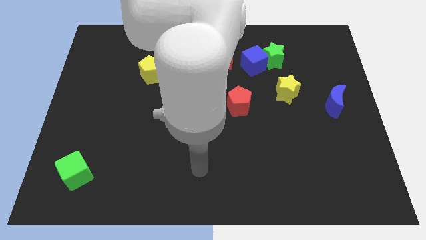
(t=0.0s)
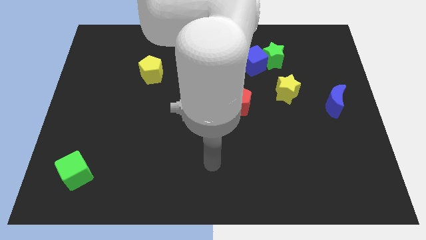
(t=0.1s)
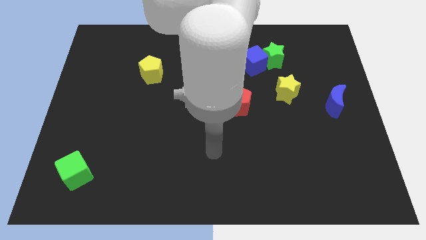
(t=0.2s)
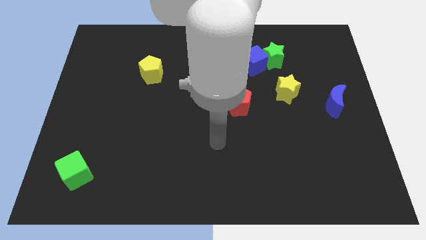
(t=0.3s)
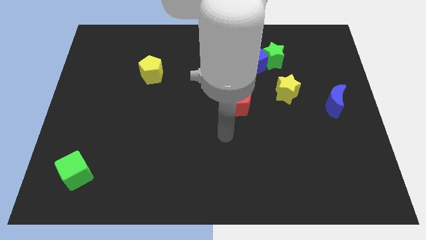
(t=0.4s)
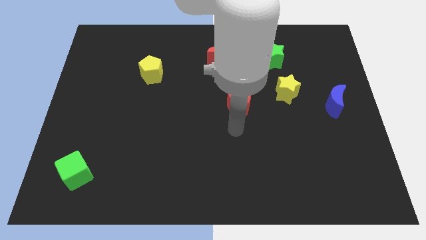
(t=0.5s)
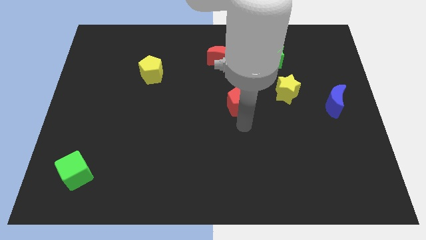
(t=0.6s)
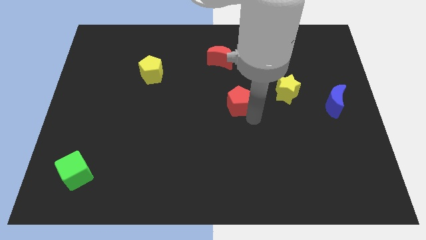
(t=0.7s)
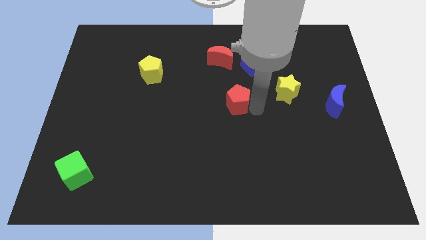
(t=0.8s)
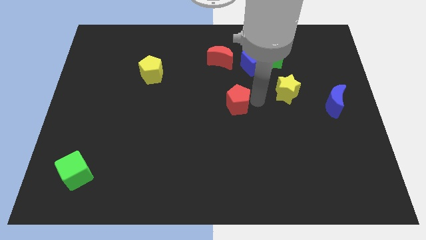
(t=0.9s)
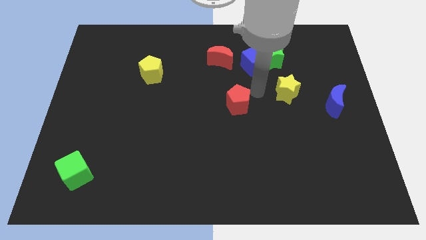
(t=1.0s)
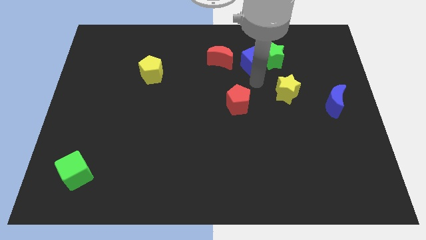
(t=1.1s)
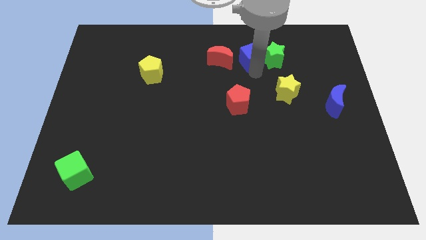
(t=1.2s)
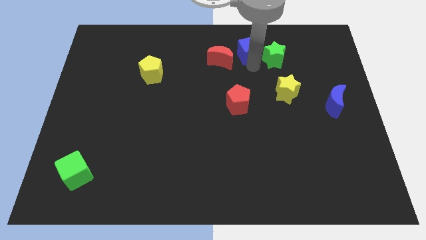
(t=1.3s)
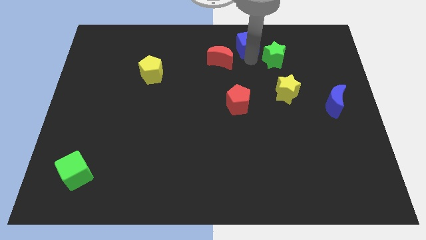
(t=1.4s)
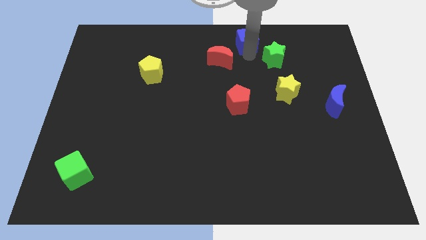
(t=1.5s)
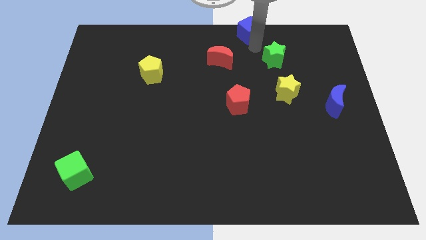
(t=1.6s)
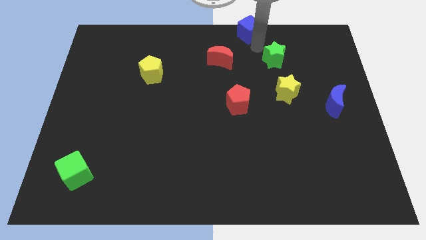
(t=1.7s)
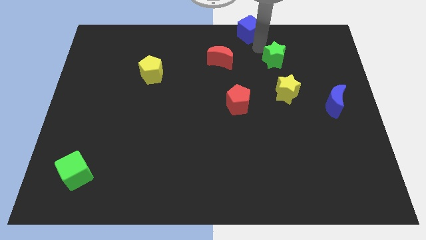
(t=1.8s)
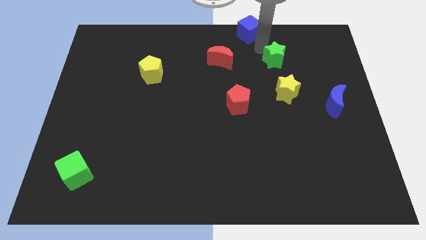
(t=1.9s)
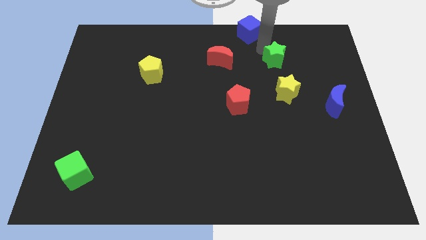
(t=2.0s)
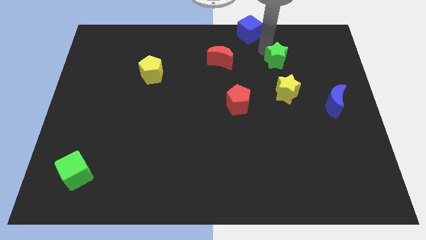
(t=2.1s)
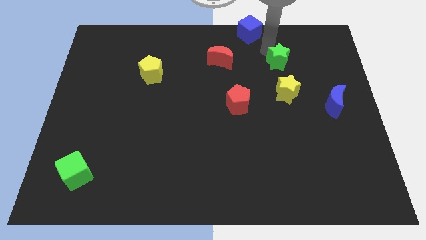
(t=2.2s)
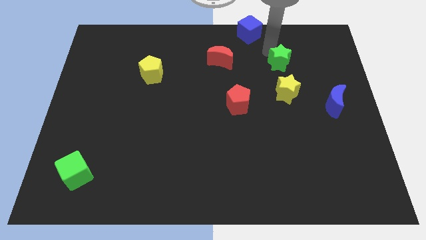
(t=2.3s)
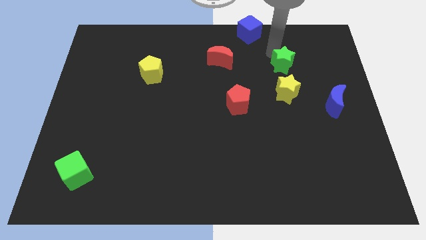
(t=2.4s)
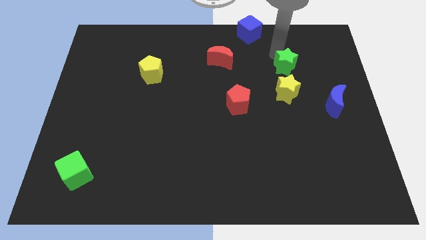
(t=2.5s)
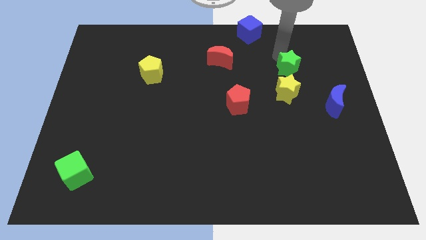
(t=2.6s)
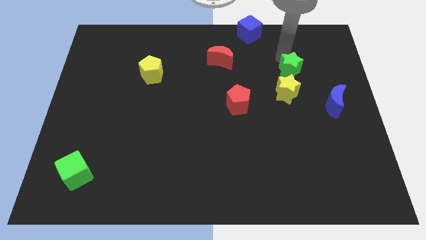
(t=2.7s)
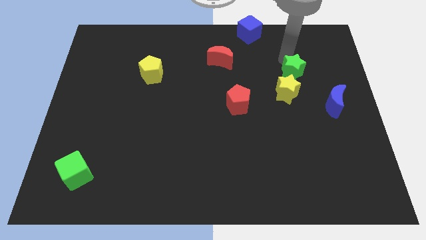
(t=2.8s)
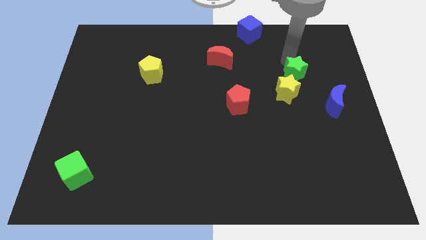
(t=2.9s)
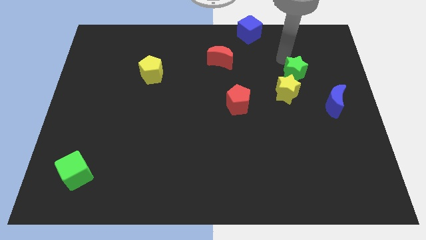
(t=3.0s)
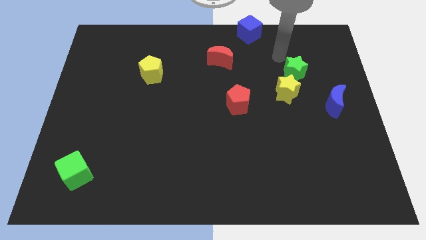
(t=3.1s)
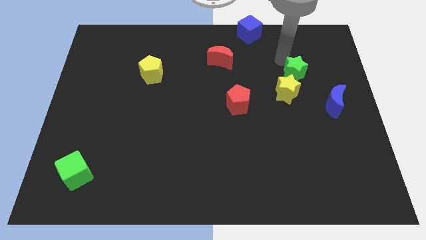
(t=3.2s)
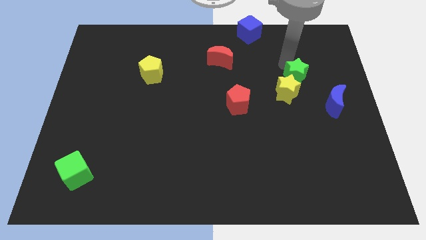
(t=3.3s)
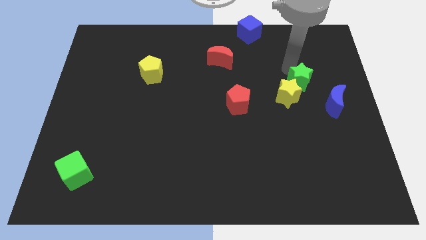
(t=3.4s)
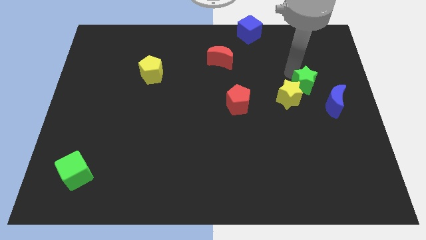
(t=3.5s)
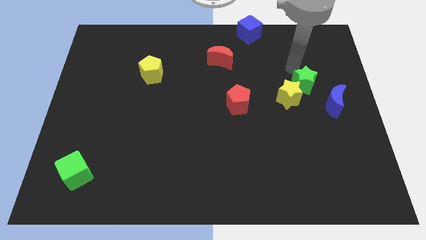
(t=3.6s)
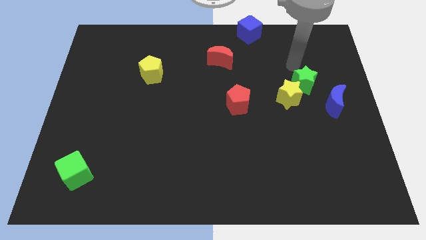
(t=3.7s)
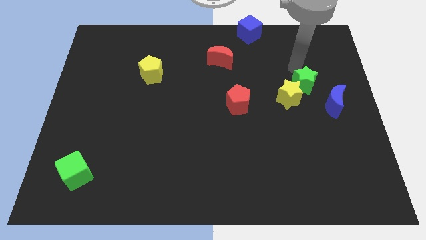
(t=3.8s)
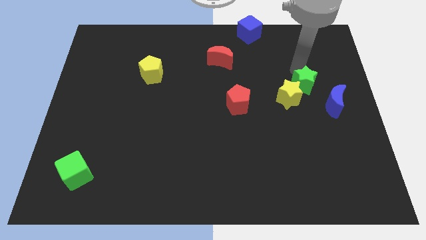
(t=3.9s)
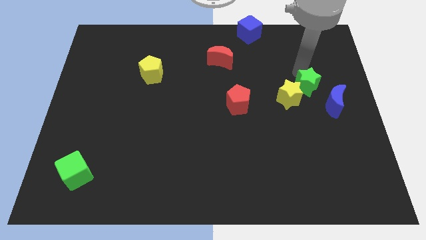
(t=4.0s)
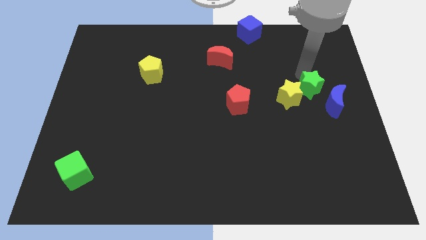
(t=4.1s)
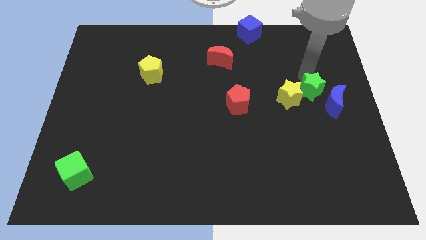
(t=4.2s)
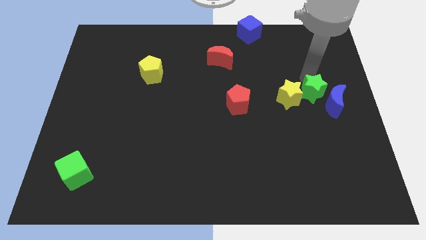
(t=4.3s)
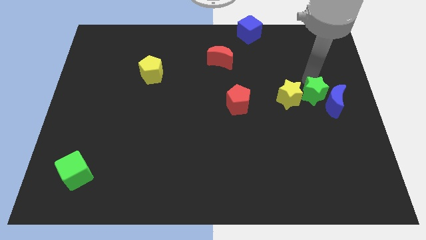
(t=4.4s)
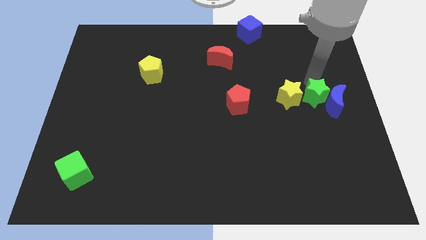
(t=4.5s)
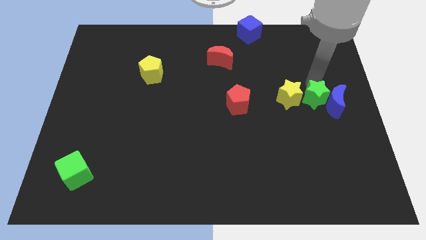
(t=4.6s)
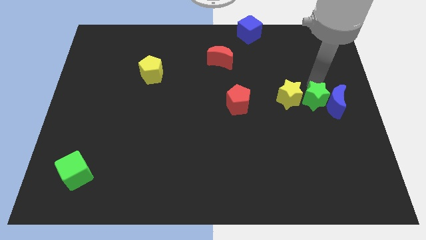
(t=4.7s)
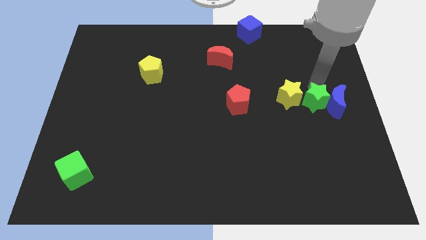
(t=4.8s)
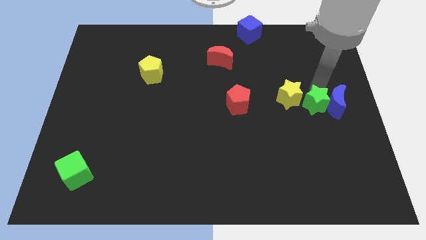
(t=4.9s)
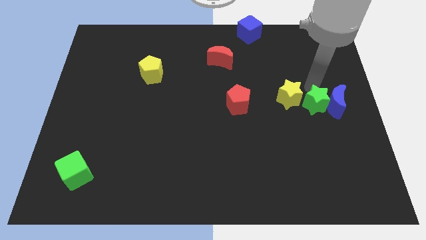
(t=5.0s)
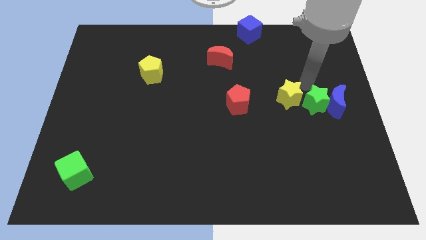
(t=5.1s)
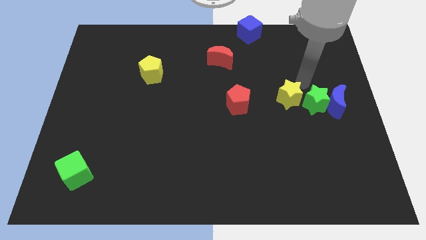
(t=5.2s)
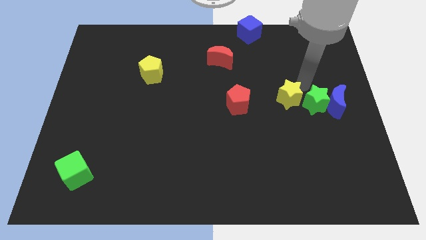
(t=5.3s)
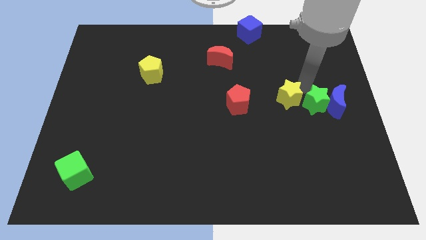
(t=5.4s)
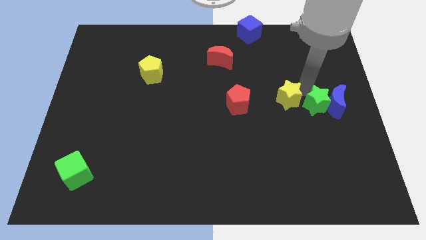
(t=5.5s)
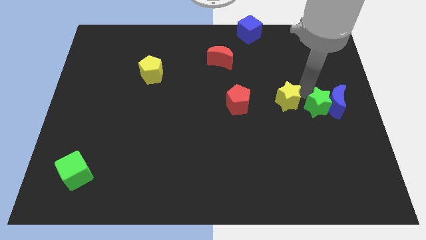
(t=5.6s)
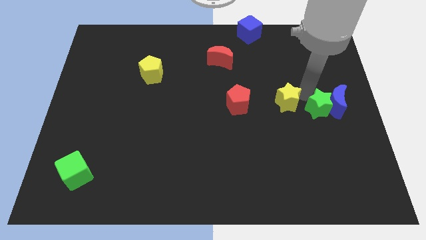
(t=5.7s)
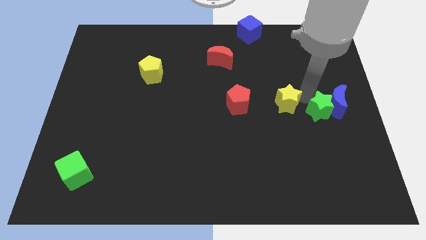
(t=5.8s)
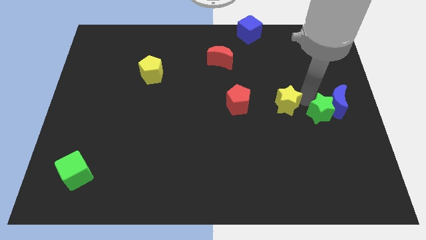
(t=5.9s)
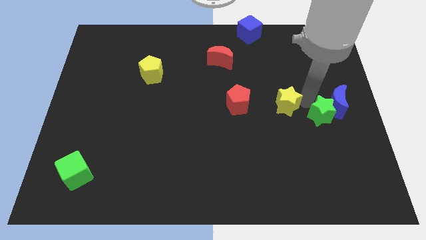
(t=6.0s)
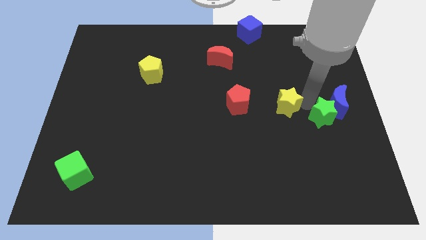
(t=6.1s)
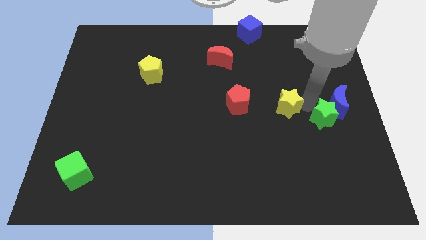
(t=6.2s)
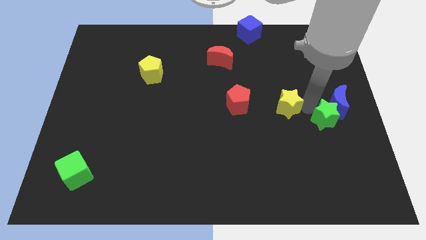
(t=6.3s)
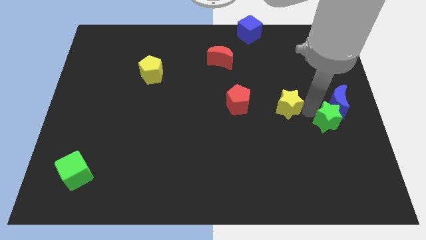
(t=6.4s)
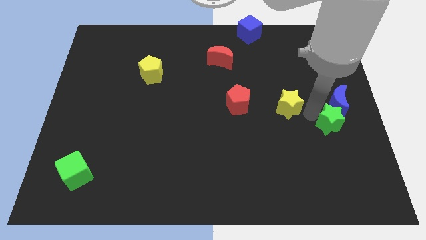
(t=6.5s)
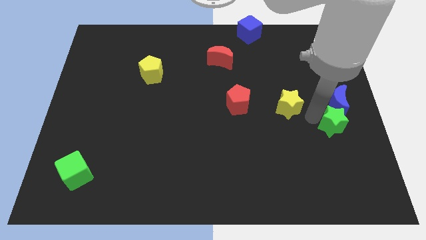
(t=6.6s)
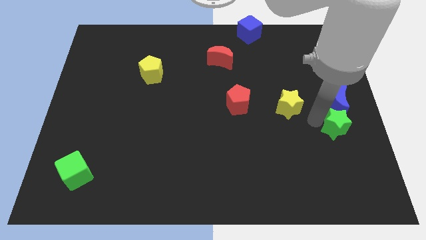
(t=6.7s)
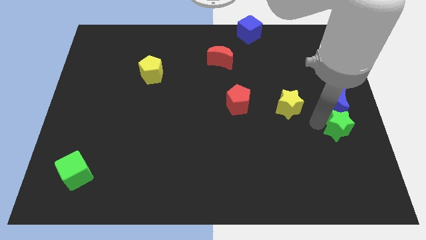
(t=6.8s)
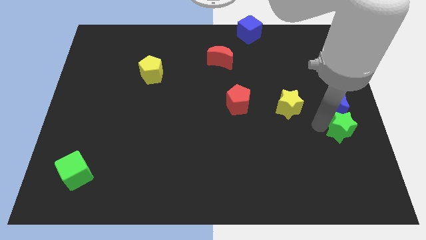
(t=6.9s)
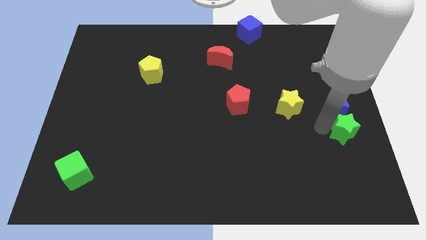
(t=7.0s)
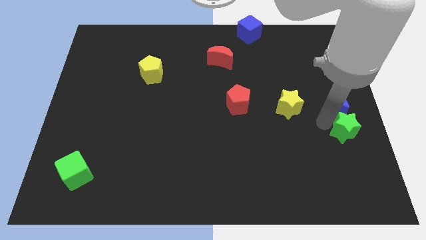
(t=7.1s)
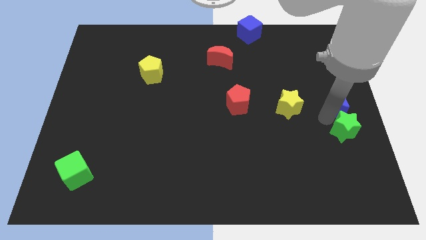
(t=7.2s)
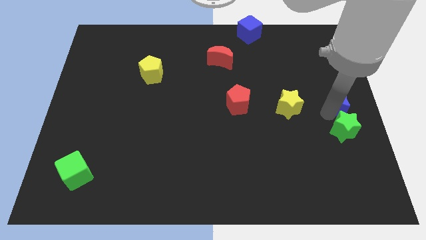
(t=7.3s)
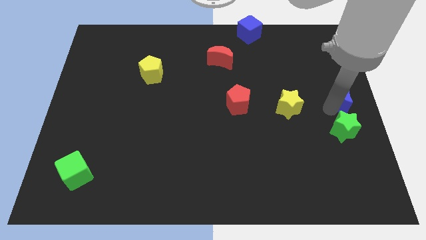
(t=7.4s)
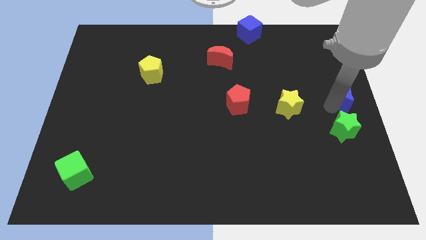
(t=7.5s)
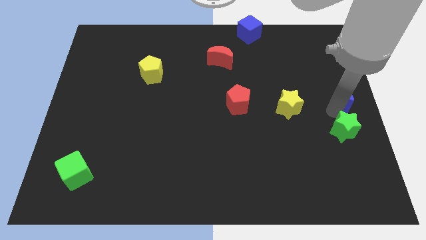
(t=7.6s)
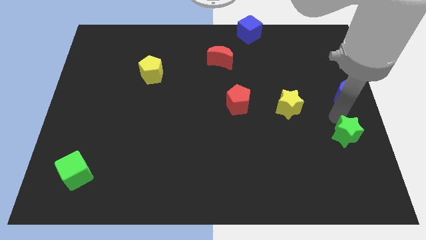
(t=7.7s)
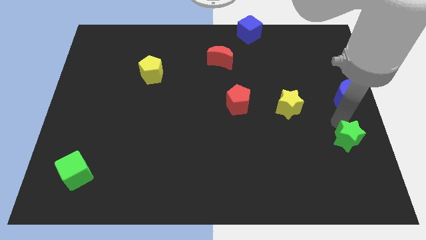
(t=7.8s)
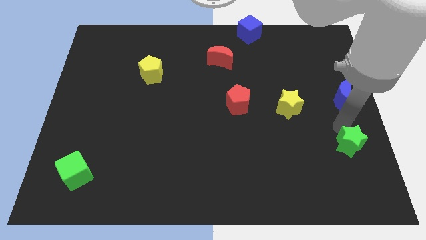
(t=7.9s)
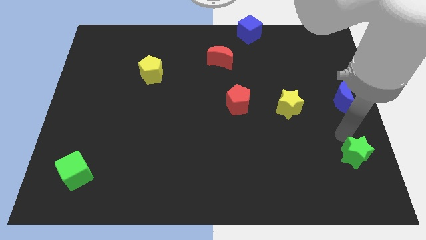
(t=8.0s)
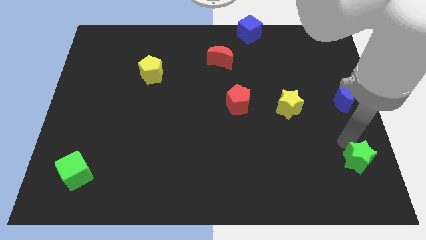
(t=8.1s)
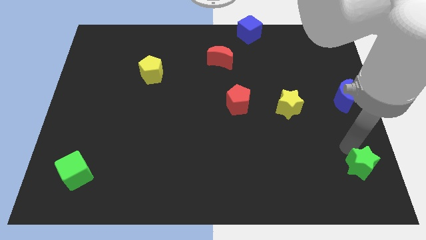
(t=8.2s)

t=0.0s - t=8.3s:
put the green star to the bottom right
